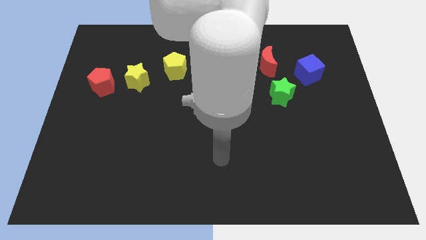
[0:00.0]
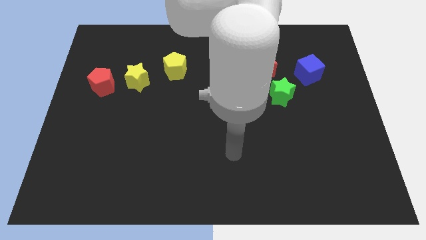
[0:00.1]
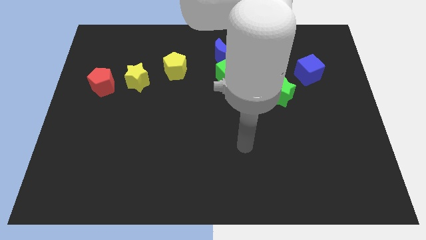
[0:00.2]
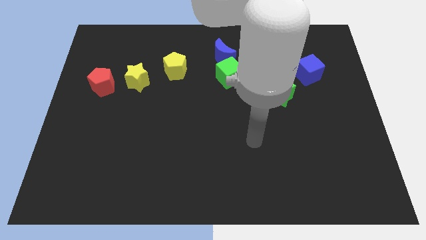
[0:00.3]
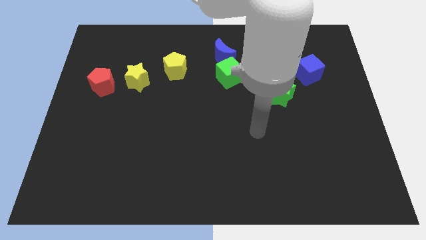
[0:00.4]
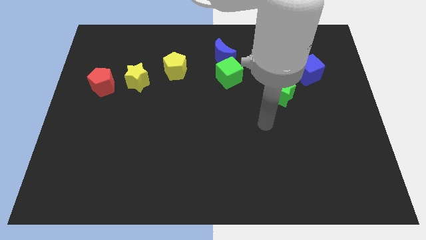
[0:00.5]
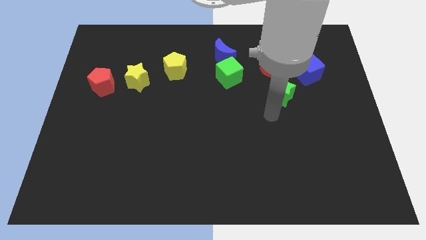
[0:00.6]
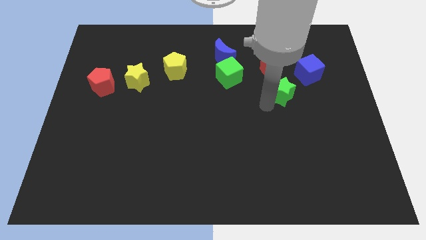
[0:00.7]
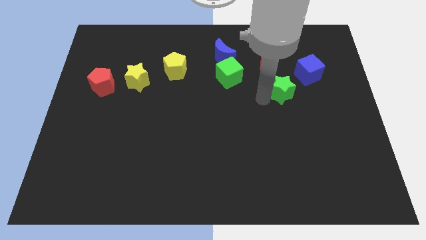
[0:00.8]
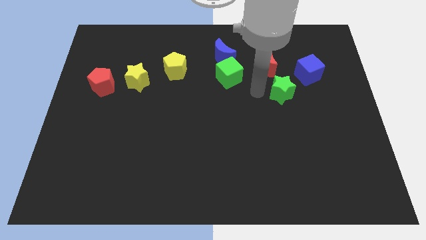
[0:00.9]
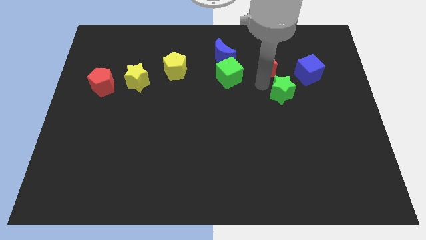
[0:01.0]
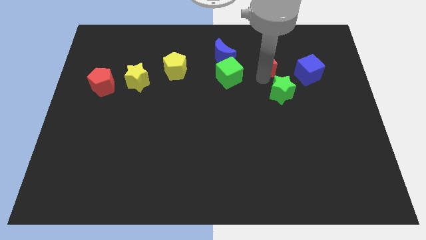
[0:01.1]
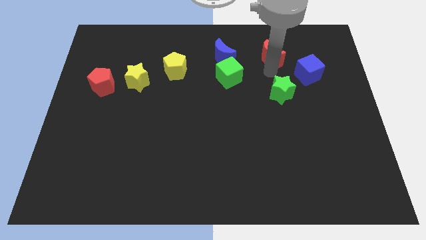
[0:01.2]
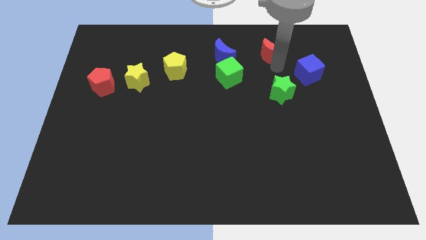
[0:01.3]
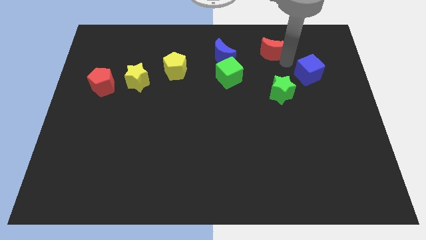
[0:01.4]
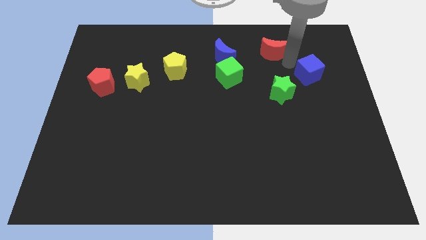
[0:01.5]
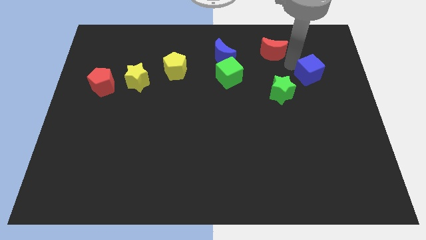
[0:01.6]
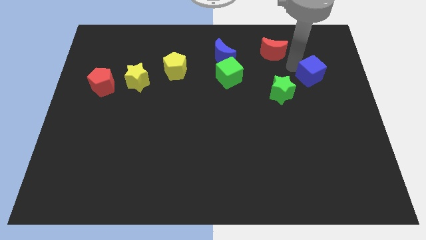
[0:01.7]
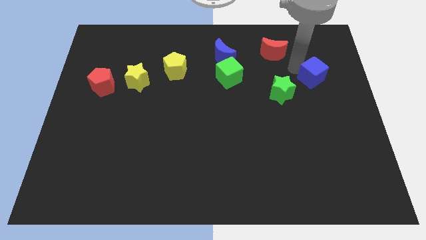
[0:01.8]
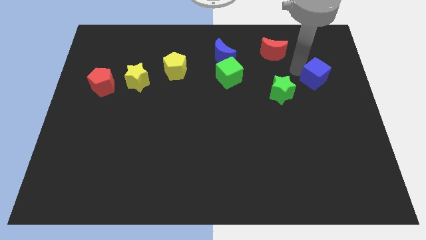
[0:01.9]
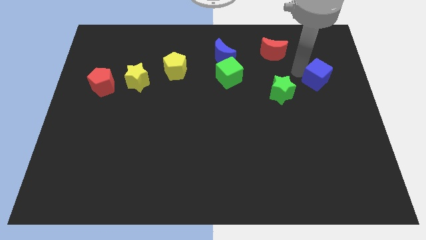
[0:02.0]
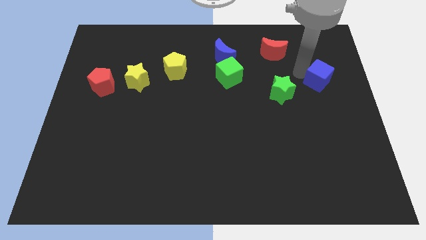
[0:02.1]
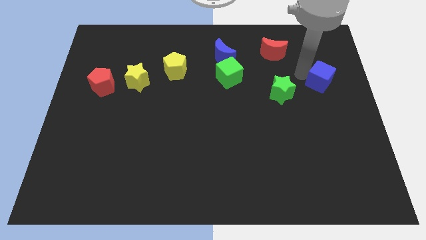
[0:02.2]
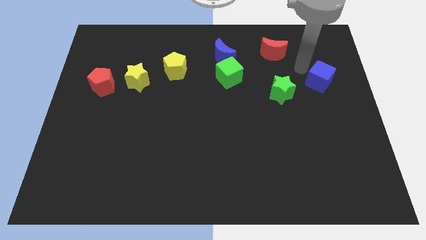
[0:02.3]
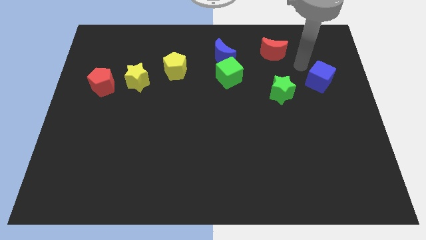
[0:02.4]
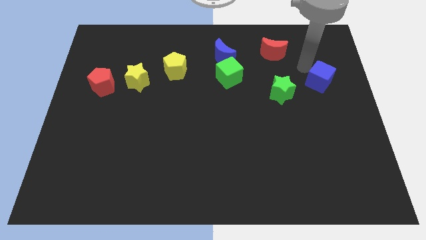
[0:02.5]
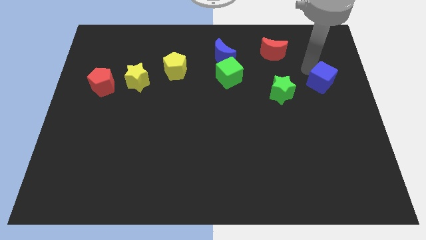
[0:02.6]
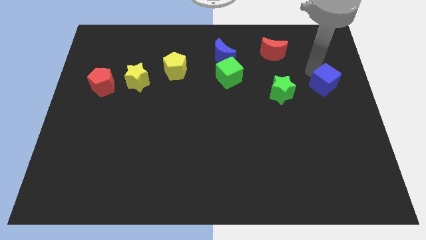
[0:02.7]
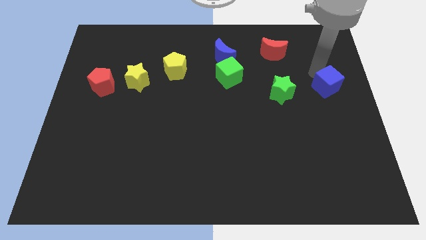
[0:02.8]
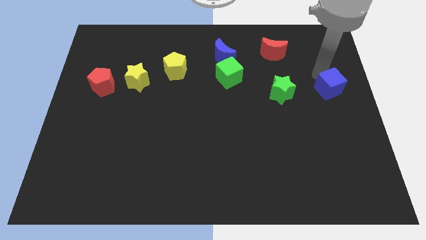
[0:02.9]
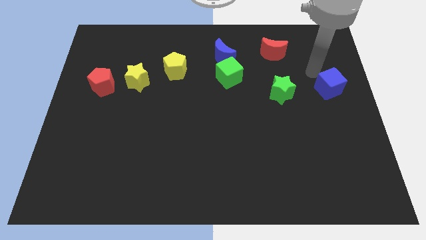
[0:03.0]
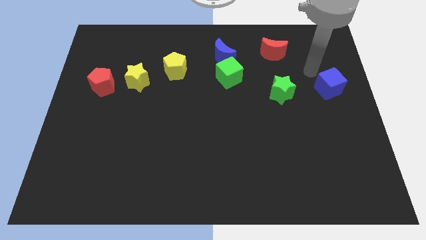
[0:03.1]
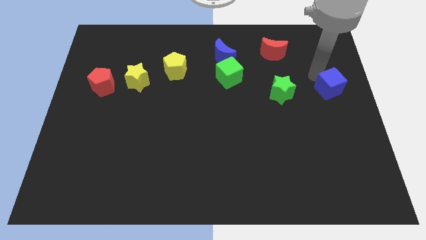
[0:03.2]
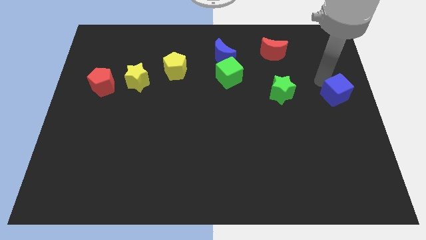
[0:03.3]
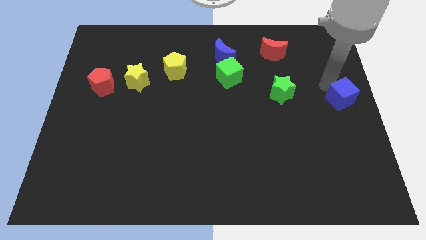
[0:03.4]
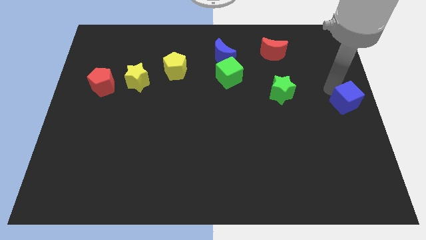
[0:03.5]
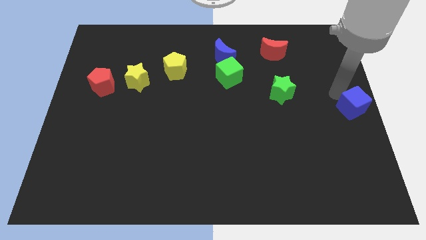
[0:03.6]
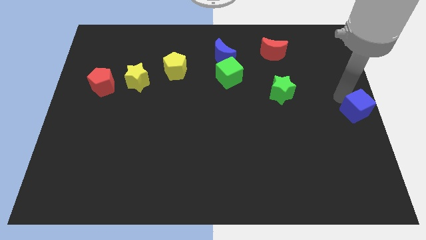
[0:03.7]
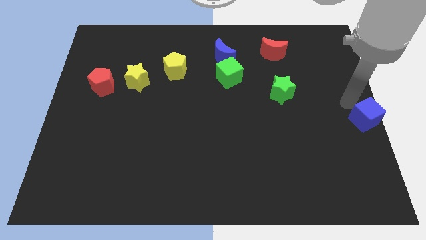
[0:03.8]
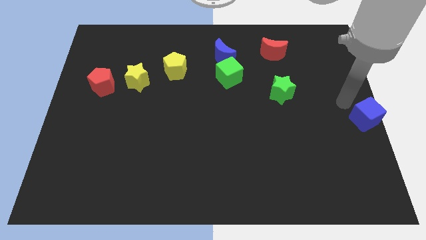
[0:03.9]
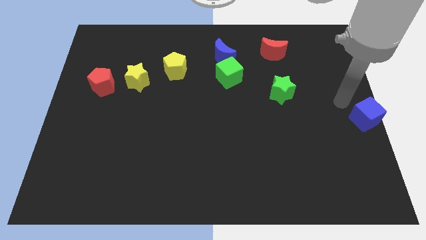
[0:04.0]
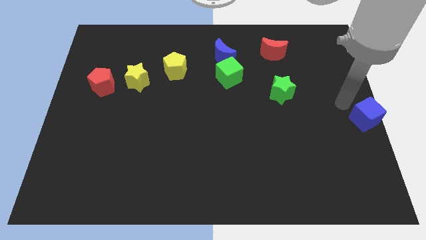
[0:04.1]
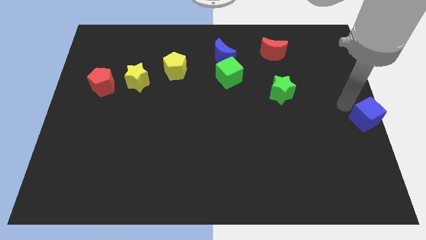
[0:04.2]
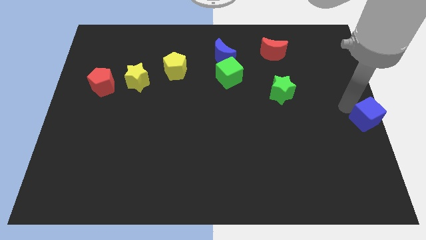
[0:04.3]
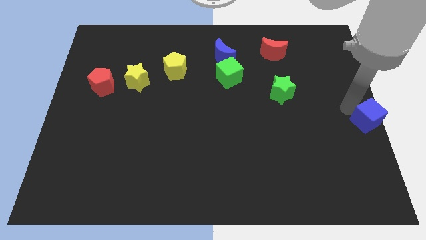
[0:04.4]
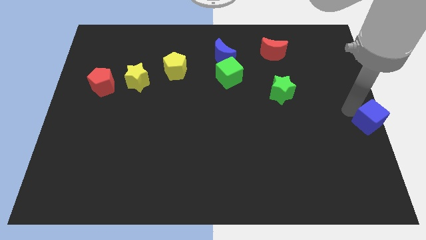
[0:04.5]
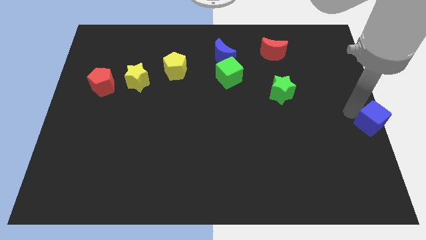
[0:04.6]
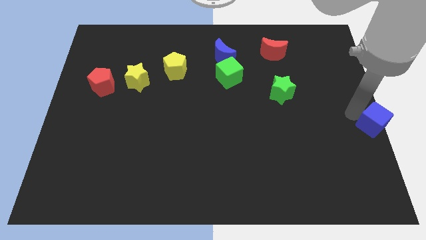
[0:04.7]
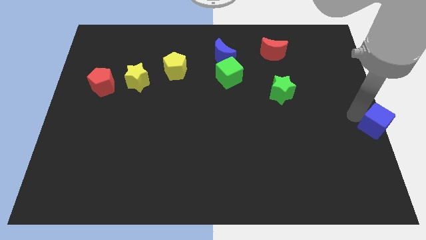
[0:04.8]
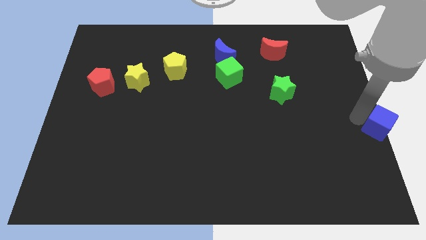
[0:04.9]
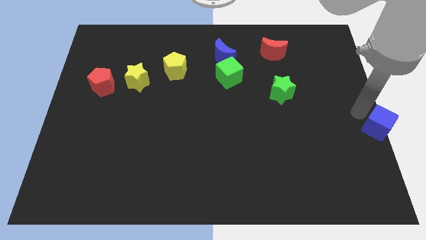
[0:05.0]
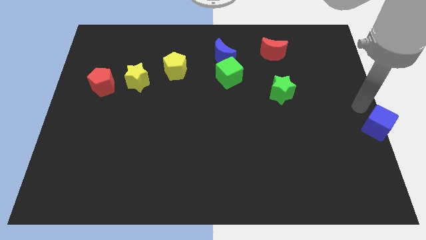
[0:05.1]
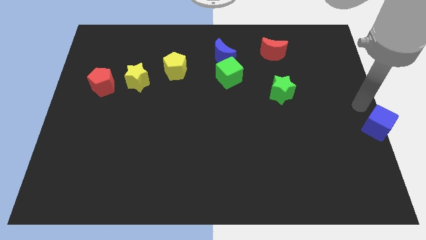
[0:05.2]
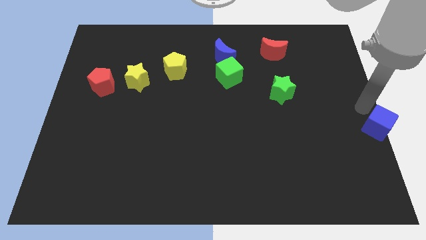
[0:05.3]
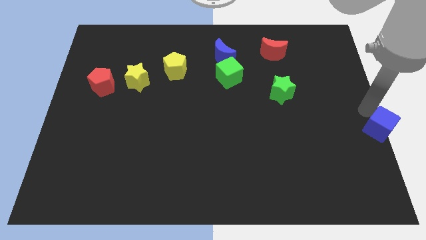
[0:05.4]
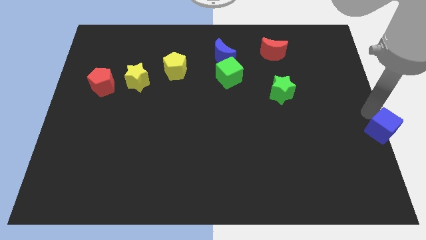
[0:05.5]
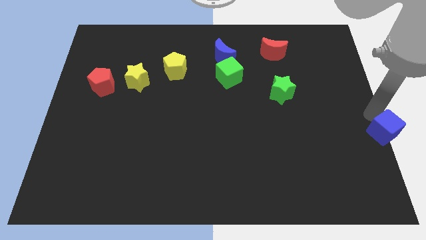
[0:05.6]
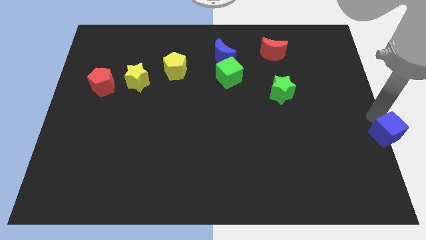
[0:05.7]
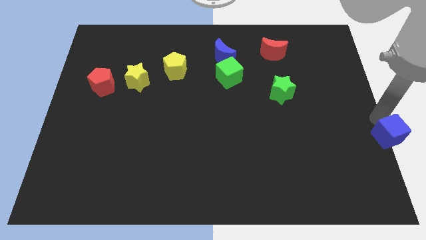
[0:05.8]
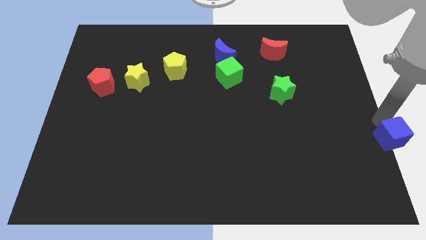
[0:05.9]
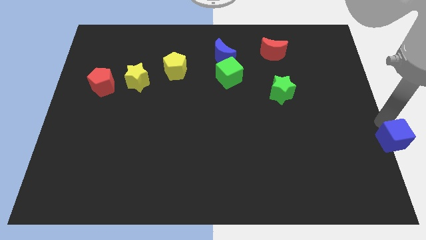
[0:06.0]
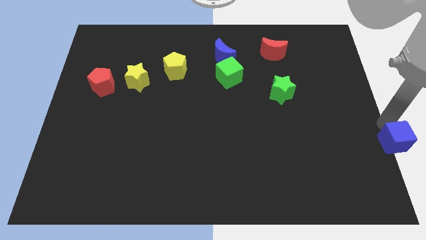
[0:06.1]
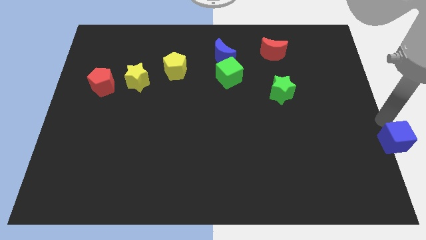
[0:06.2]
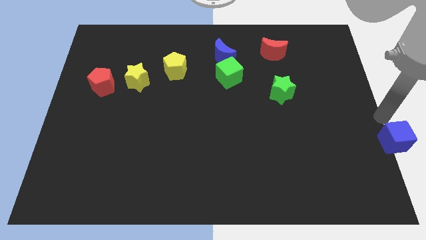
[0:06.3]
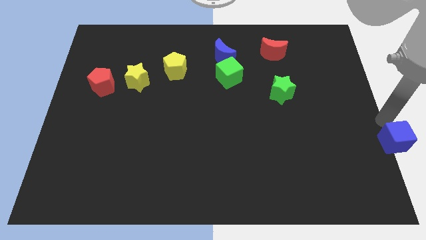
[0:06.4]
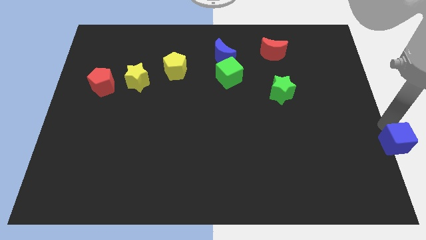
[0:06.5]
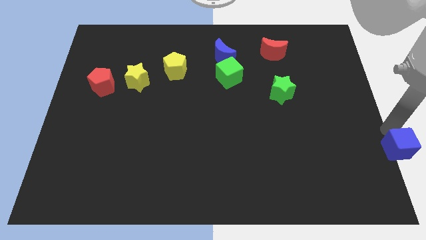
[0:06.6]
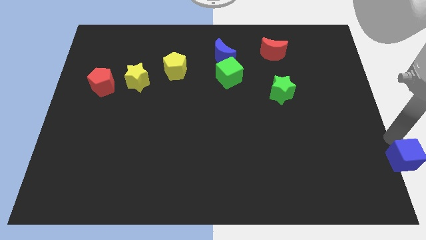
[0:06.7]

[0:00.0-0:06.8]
move the blue cube to the bottom right of the board
